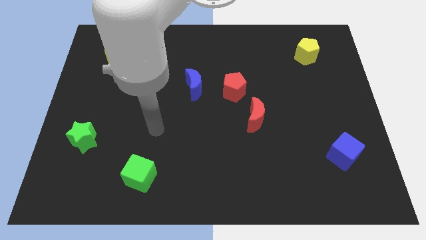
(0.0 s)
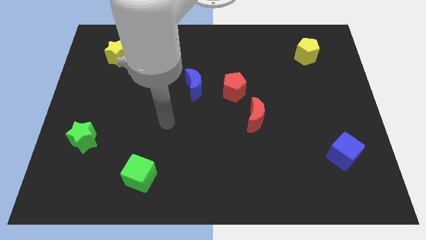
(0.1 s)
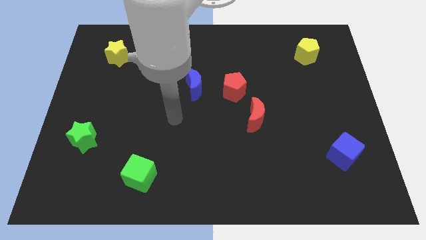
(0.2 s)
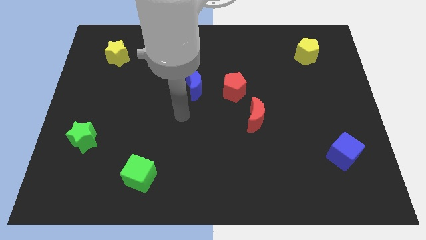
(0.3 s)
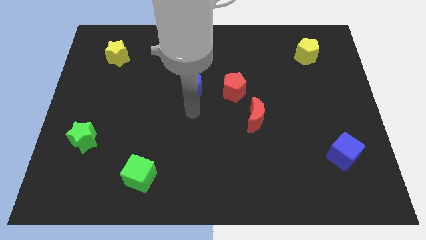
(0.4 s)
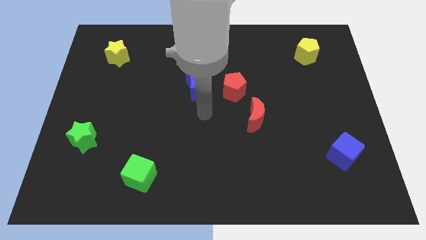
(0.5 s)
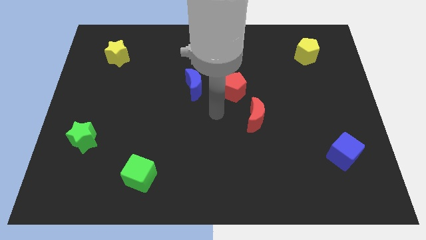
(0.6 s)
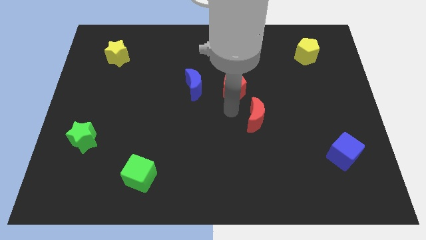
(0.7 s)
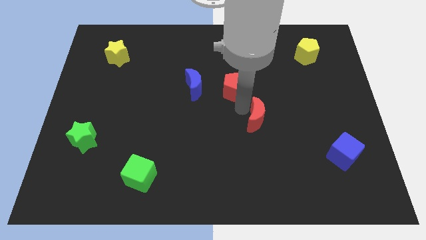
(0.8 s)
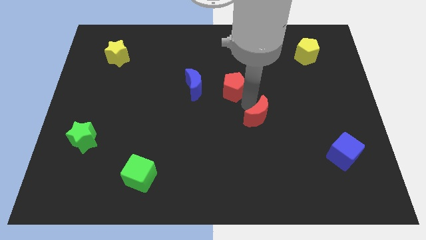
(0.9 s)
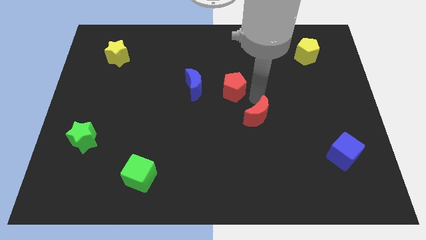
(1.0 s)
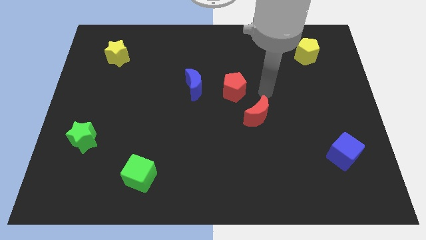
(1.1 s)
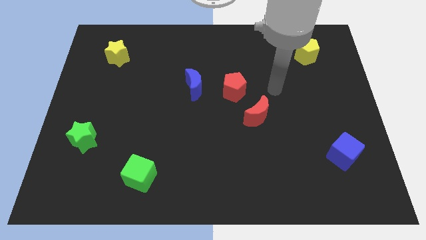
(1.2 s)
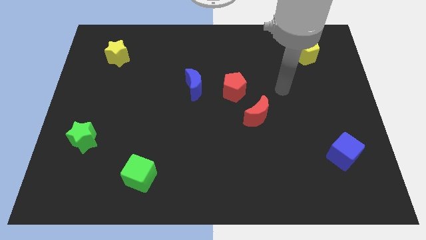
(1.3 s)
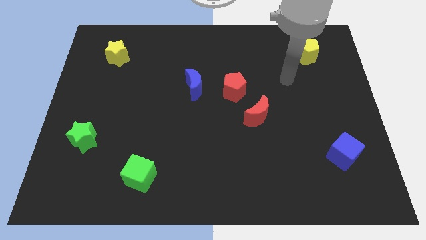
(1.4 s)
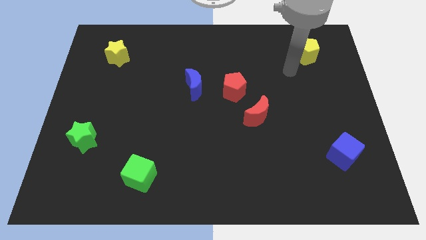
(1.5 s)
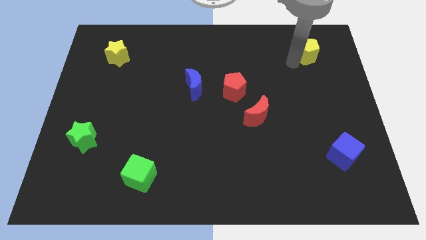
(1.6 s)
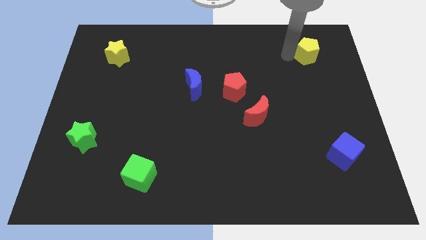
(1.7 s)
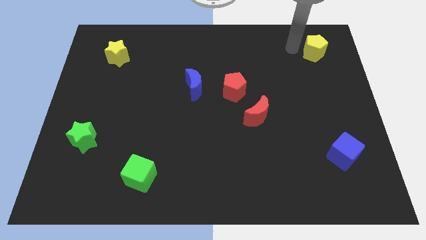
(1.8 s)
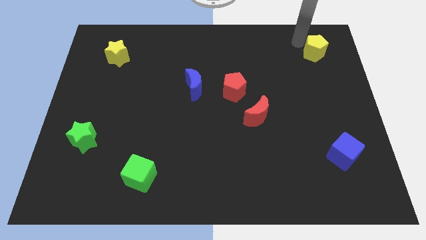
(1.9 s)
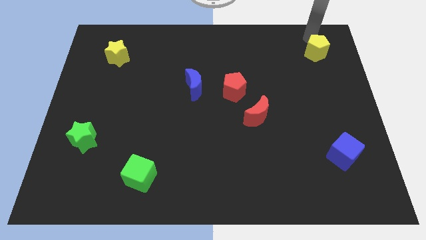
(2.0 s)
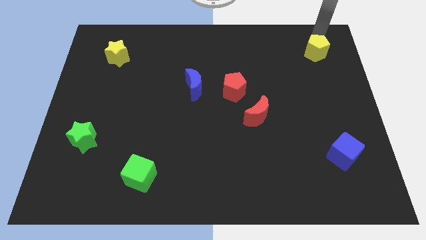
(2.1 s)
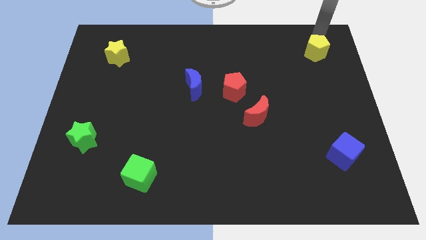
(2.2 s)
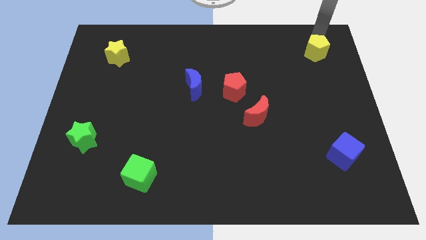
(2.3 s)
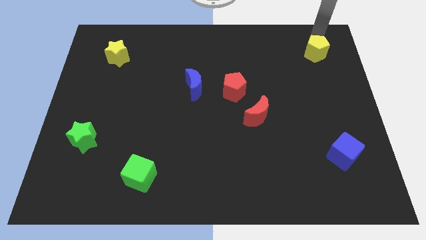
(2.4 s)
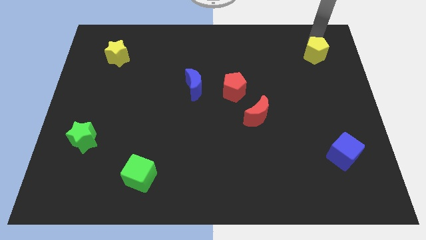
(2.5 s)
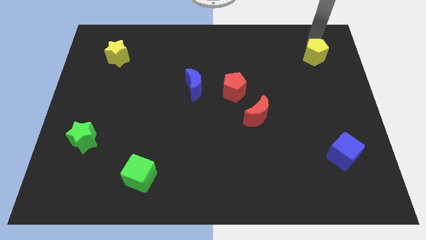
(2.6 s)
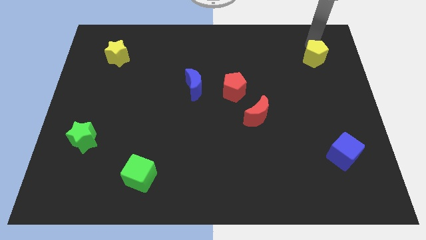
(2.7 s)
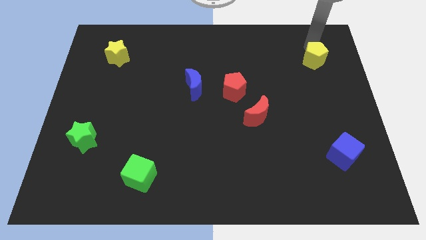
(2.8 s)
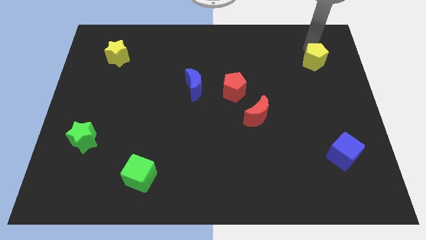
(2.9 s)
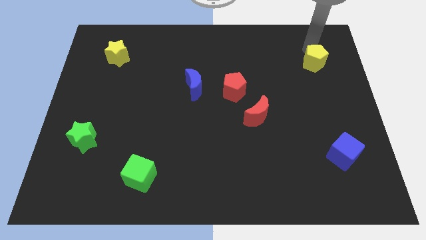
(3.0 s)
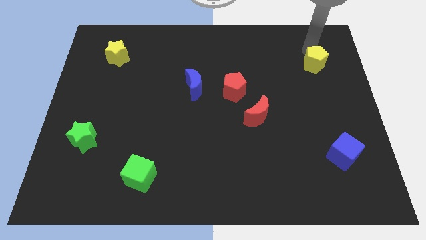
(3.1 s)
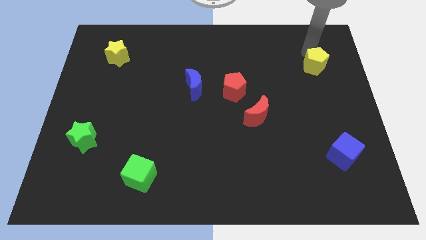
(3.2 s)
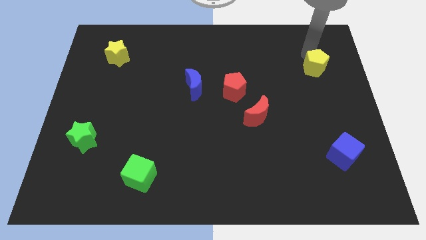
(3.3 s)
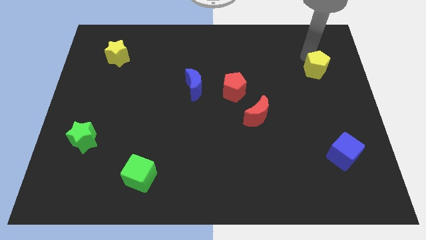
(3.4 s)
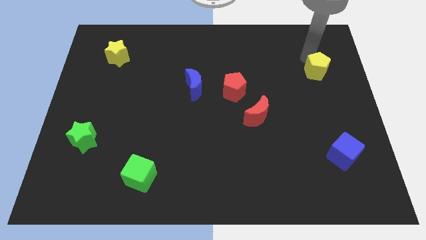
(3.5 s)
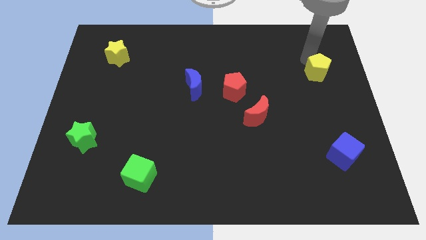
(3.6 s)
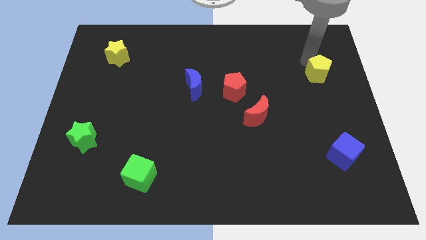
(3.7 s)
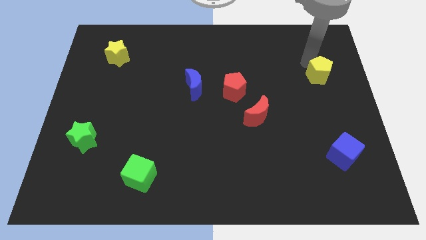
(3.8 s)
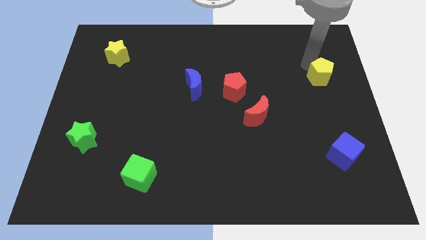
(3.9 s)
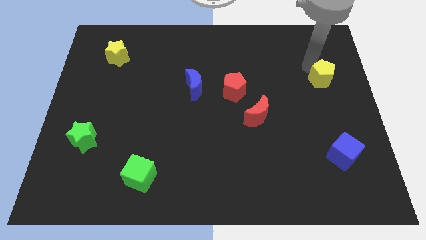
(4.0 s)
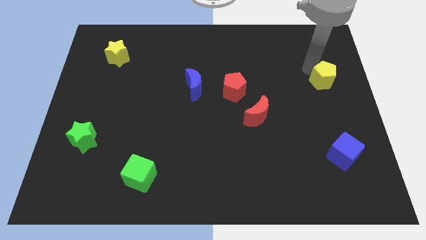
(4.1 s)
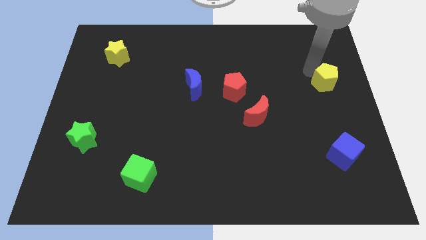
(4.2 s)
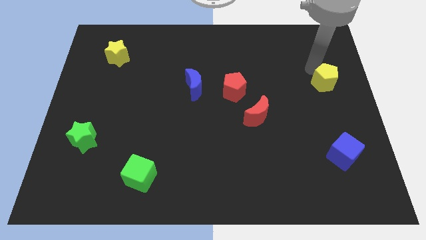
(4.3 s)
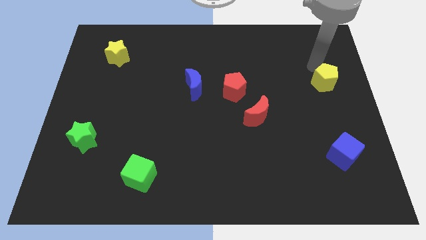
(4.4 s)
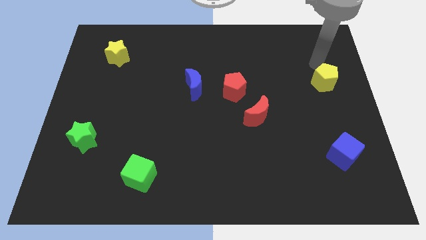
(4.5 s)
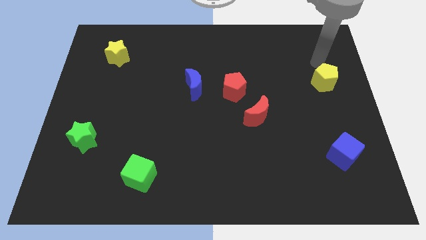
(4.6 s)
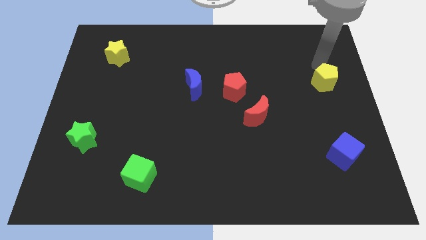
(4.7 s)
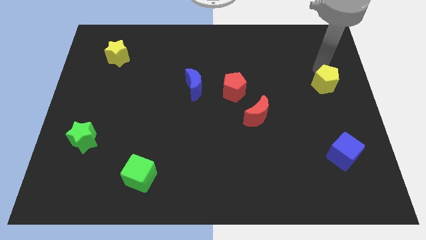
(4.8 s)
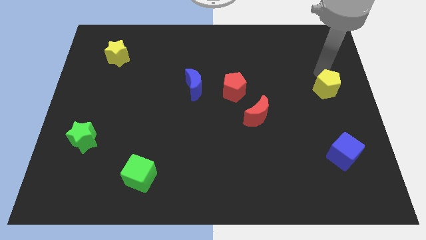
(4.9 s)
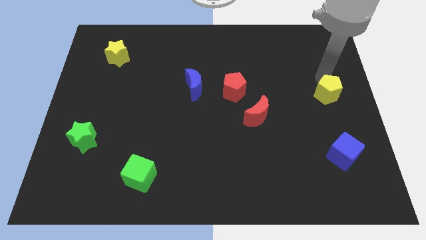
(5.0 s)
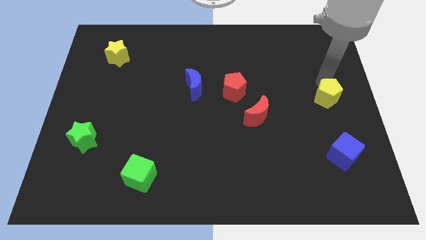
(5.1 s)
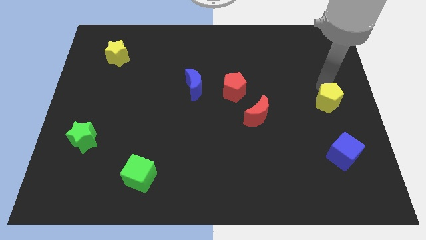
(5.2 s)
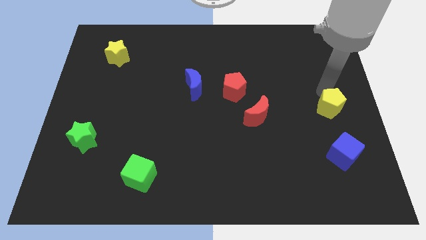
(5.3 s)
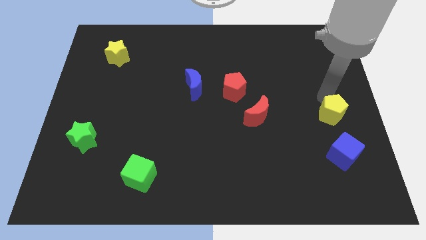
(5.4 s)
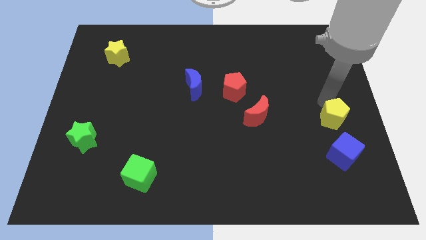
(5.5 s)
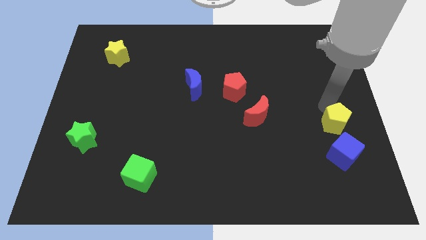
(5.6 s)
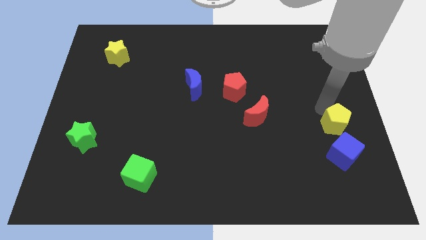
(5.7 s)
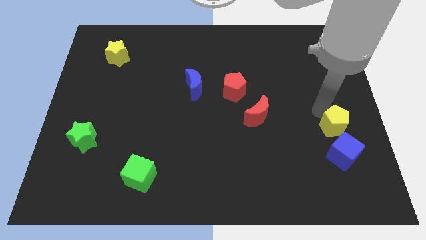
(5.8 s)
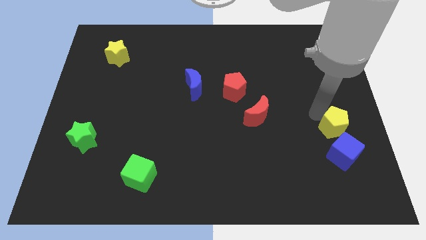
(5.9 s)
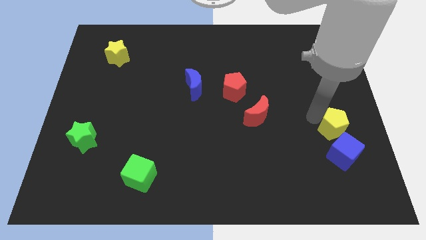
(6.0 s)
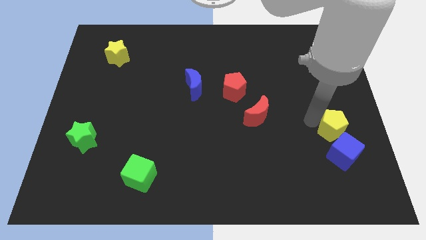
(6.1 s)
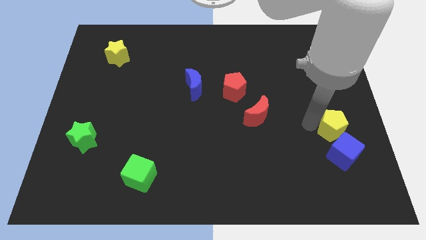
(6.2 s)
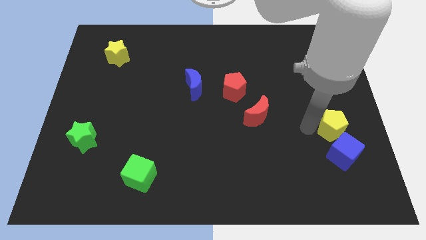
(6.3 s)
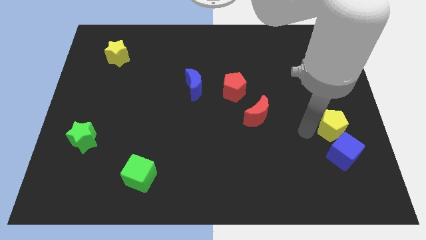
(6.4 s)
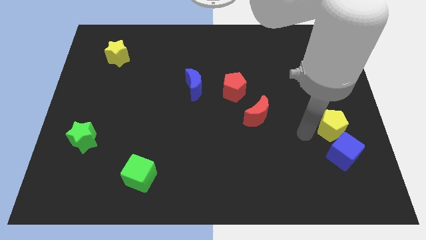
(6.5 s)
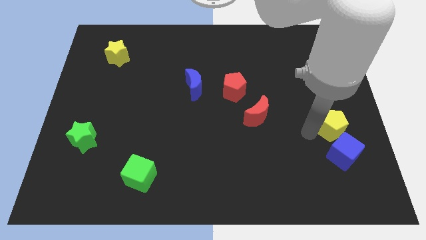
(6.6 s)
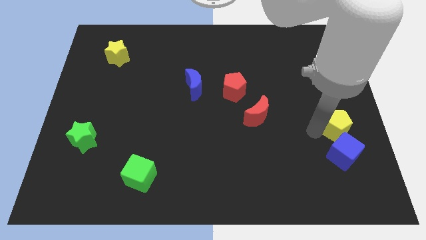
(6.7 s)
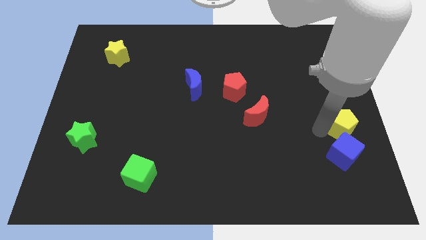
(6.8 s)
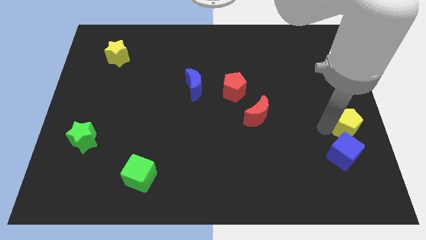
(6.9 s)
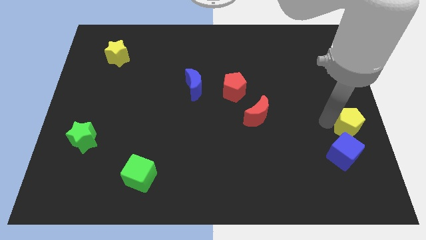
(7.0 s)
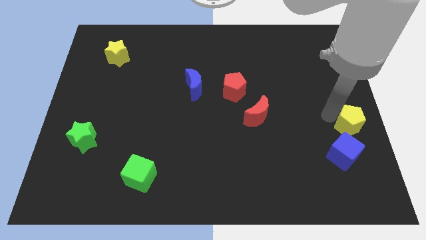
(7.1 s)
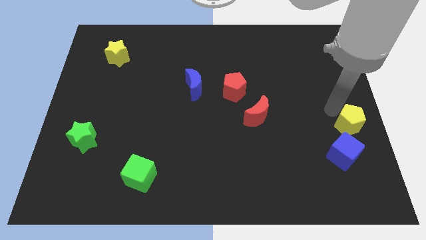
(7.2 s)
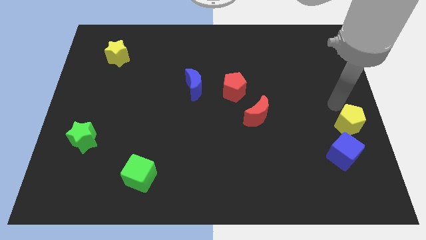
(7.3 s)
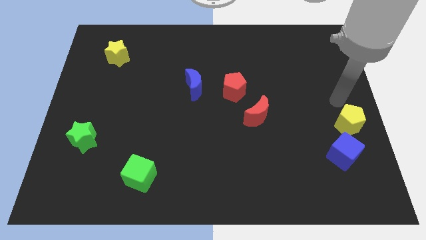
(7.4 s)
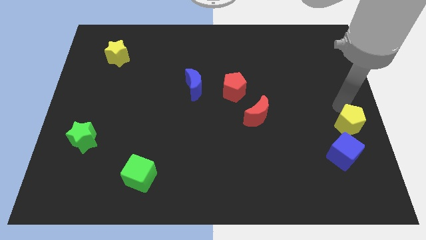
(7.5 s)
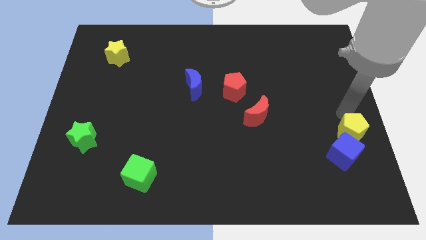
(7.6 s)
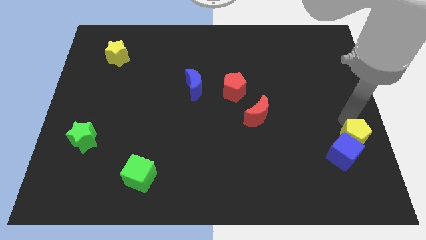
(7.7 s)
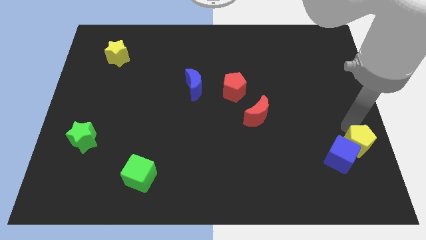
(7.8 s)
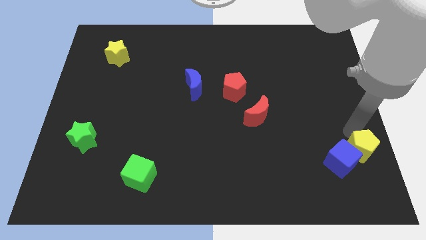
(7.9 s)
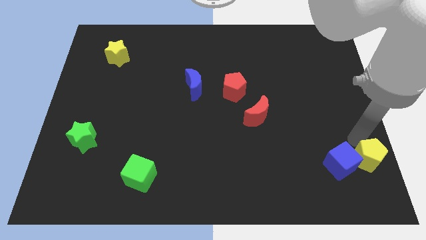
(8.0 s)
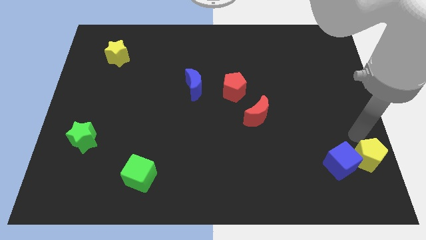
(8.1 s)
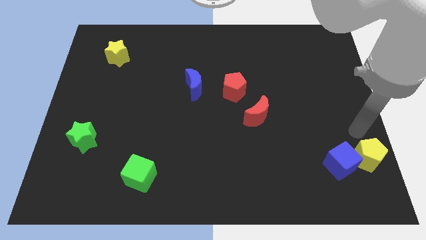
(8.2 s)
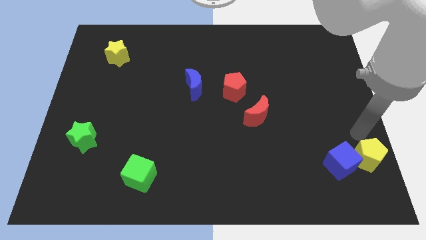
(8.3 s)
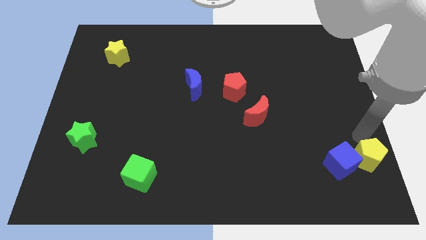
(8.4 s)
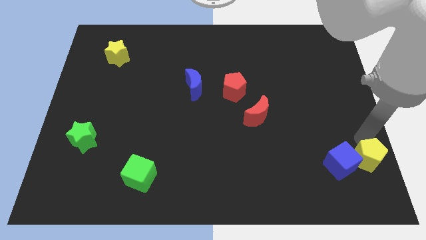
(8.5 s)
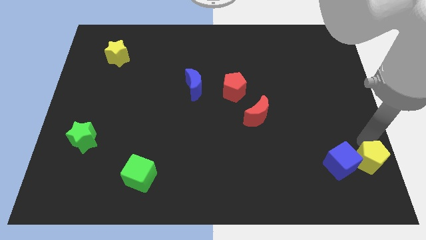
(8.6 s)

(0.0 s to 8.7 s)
move the yellow pentagon to the bottom right of the board
